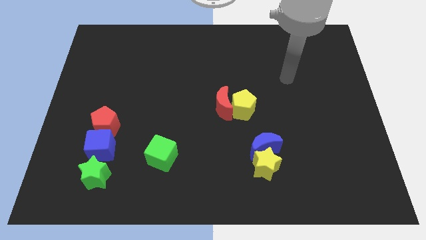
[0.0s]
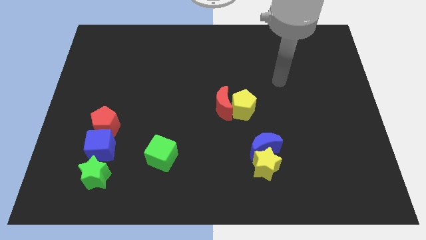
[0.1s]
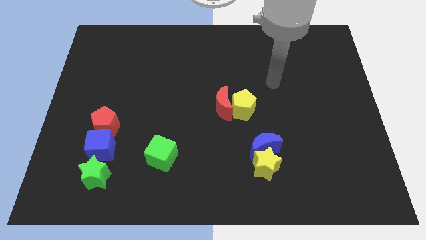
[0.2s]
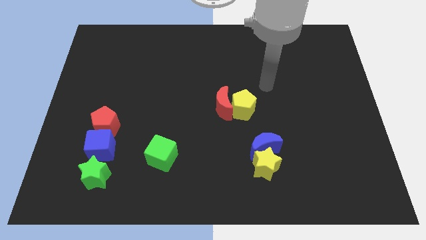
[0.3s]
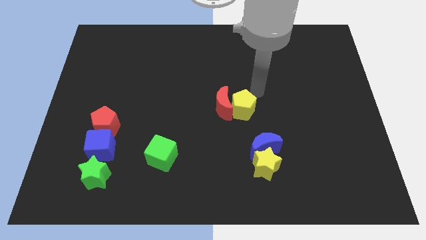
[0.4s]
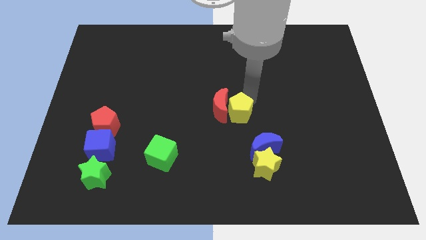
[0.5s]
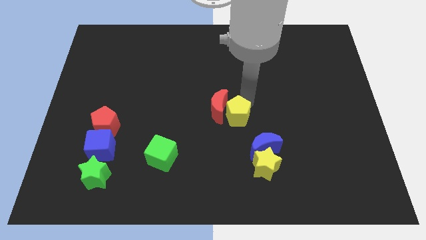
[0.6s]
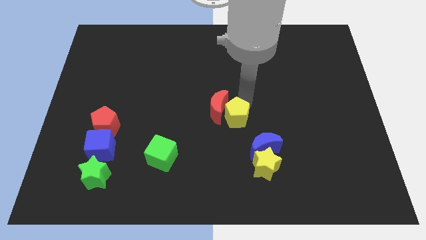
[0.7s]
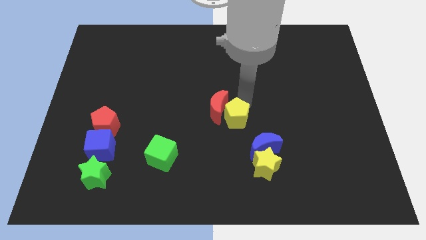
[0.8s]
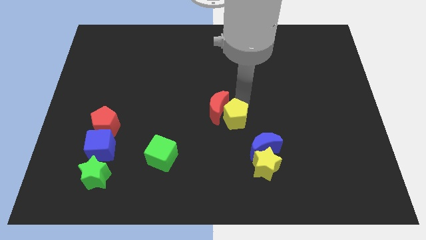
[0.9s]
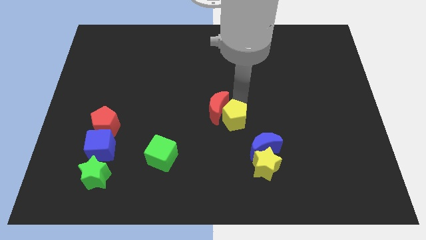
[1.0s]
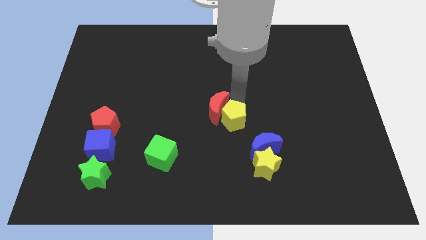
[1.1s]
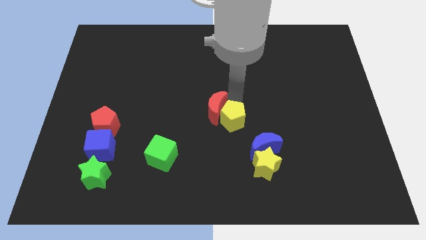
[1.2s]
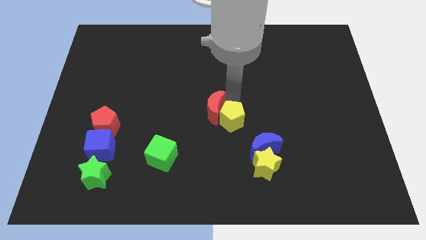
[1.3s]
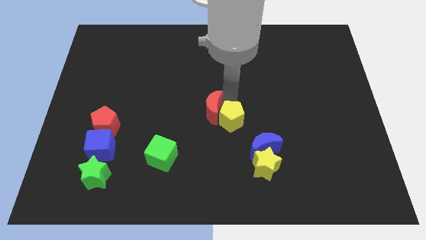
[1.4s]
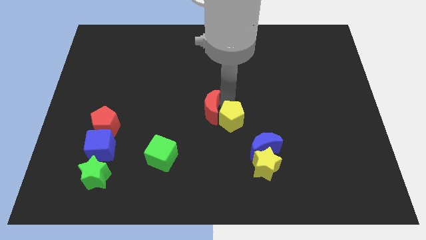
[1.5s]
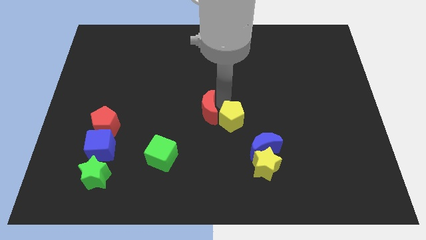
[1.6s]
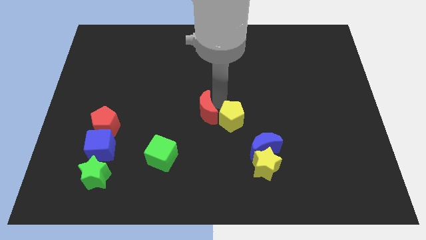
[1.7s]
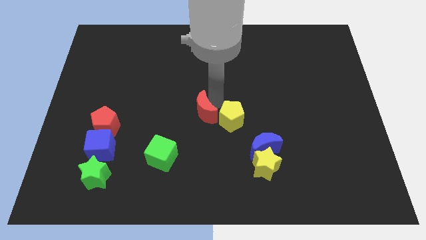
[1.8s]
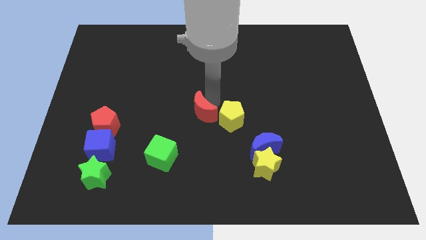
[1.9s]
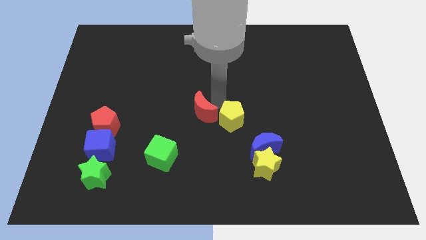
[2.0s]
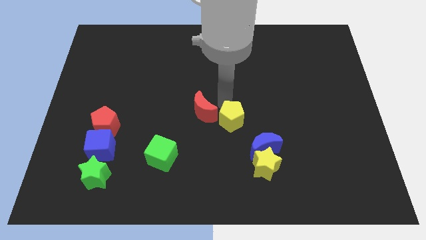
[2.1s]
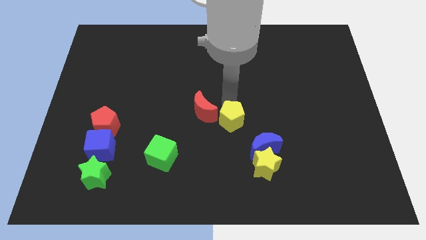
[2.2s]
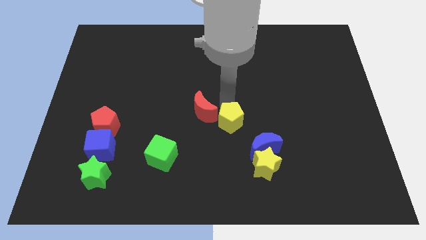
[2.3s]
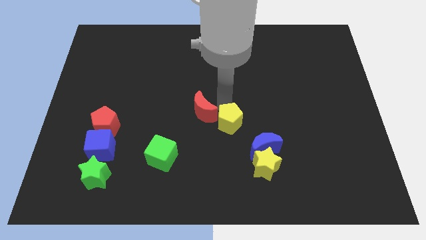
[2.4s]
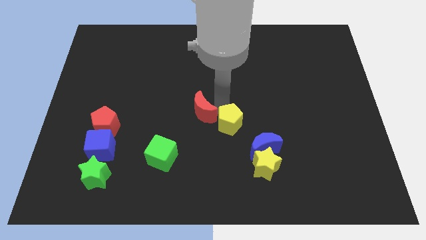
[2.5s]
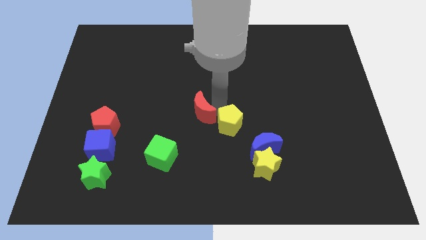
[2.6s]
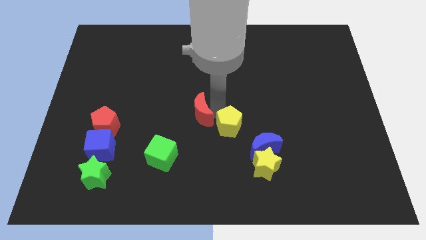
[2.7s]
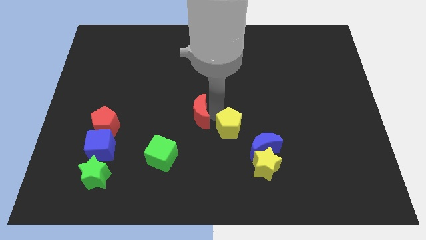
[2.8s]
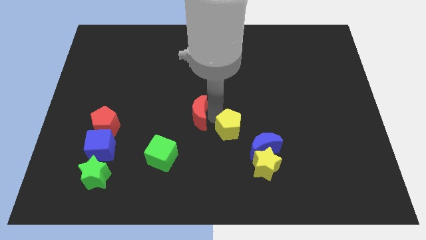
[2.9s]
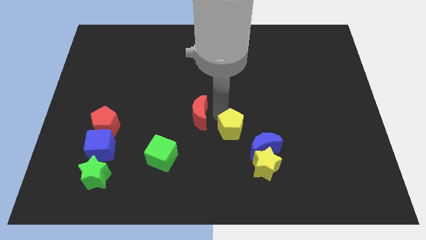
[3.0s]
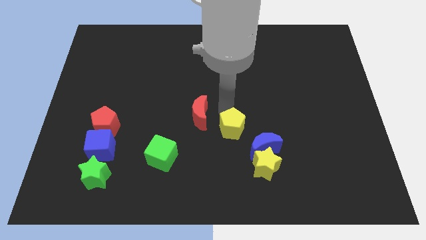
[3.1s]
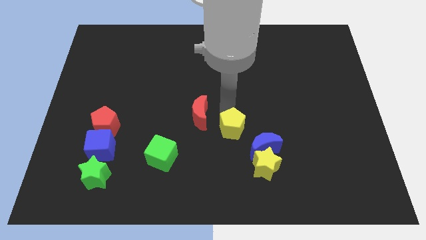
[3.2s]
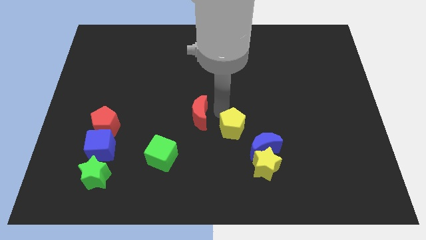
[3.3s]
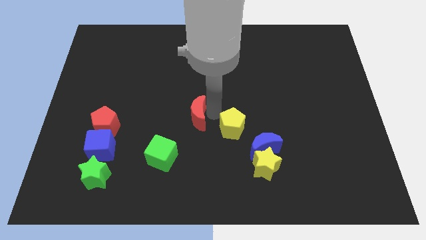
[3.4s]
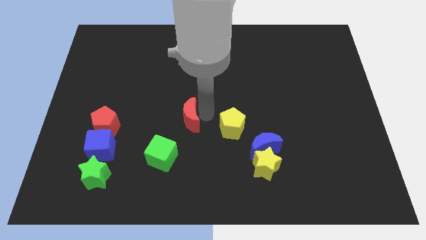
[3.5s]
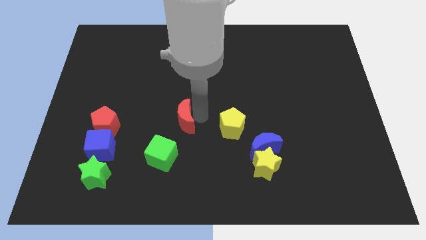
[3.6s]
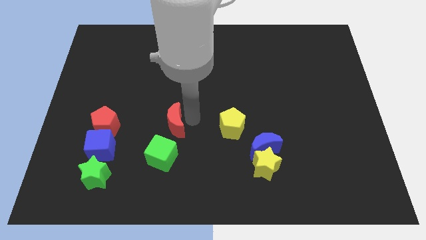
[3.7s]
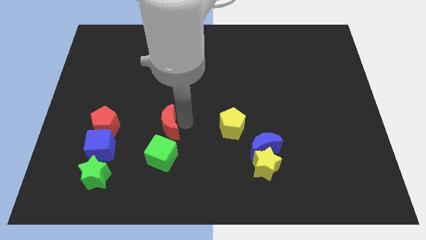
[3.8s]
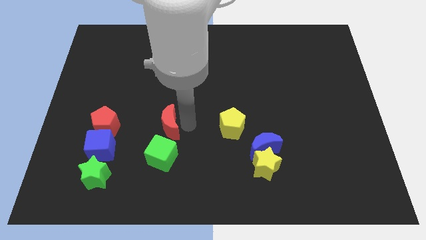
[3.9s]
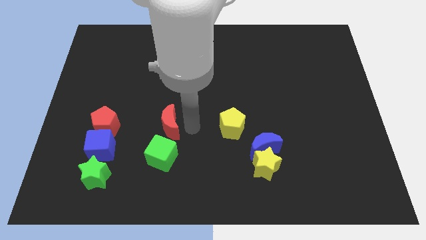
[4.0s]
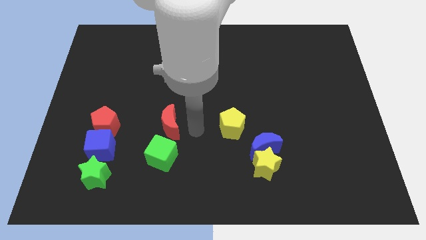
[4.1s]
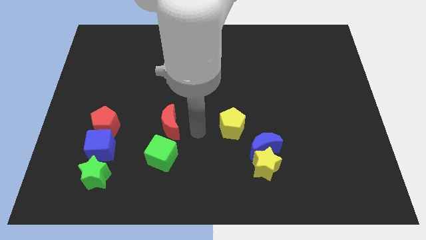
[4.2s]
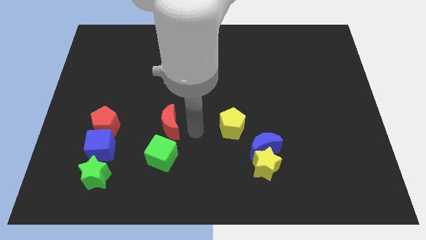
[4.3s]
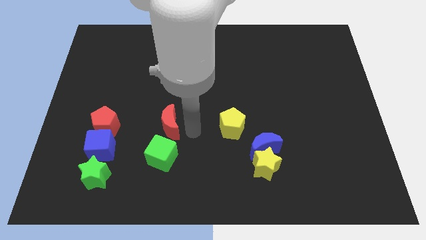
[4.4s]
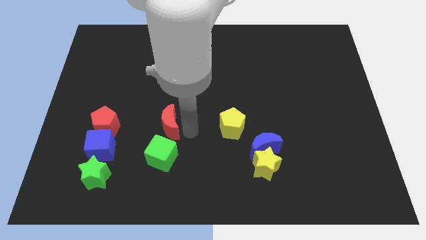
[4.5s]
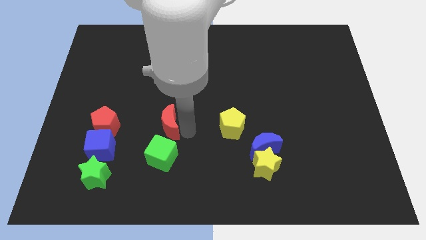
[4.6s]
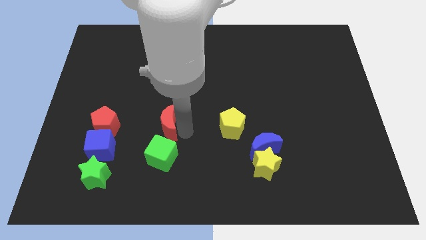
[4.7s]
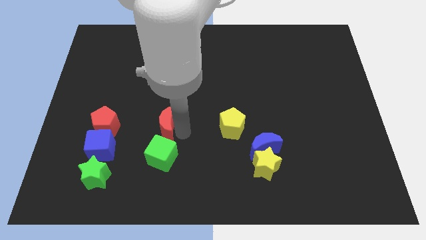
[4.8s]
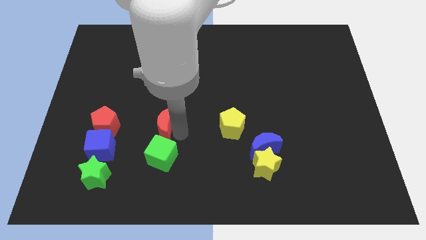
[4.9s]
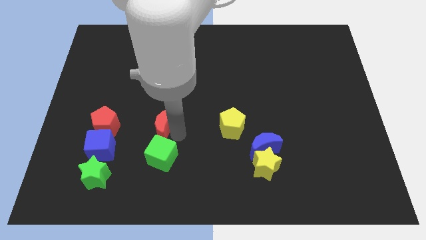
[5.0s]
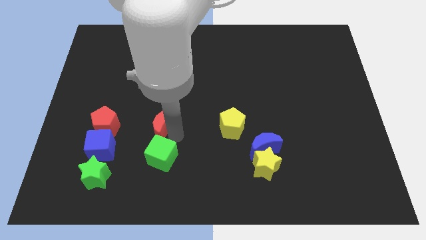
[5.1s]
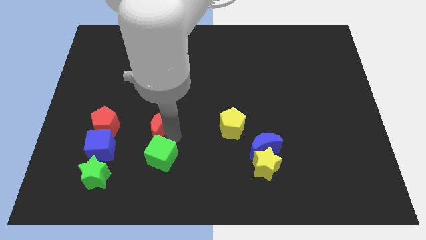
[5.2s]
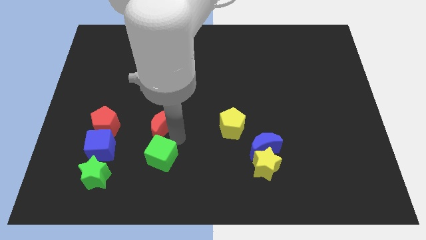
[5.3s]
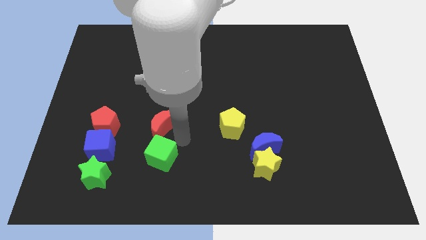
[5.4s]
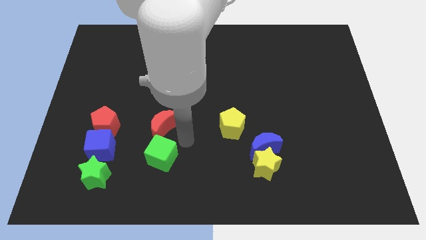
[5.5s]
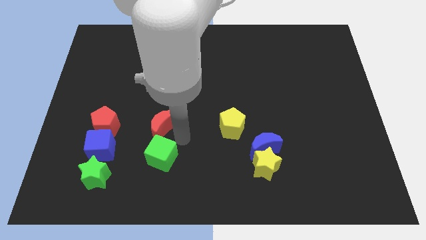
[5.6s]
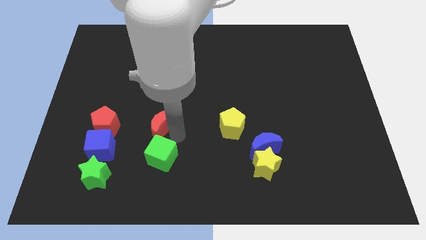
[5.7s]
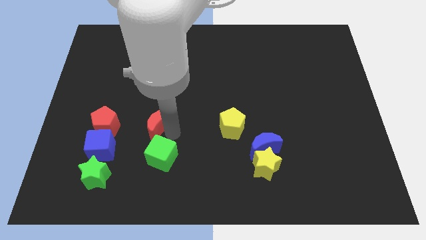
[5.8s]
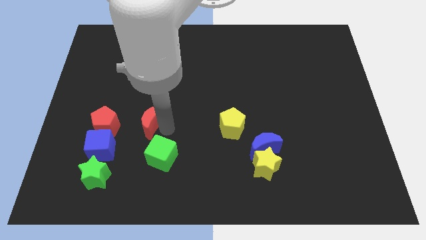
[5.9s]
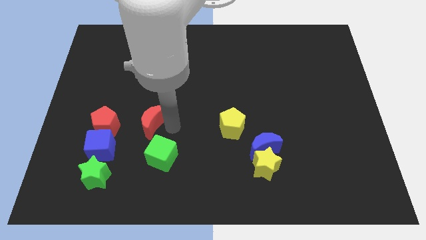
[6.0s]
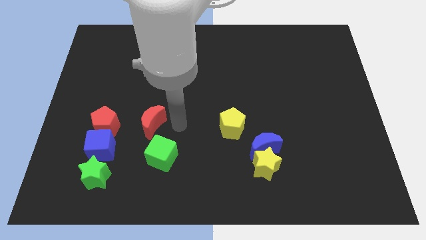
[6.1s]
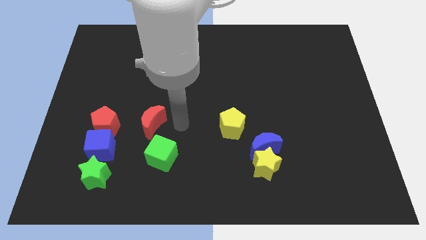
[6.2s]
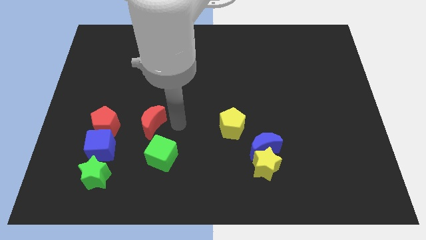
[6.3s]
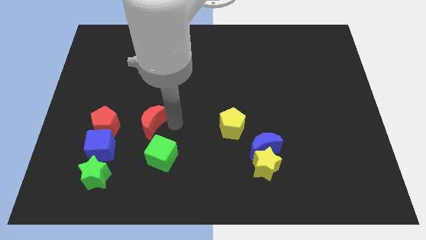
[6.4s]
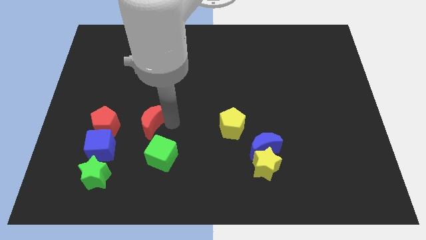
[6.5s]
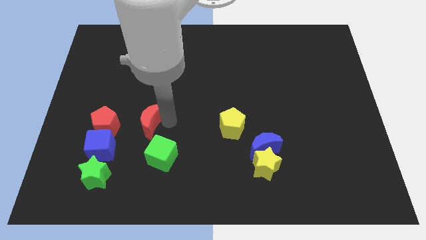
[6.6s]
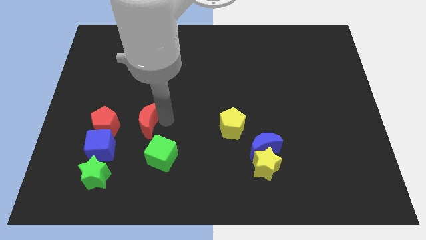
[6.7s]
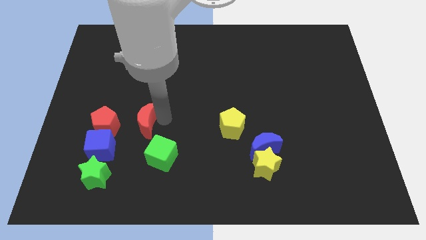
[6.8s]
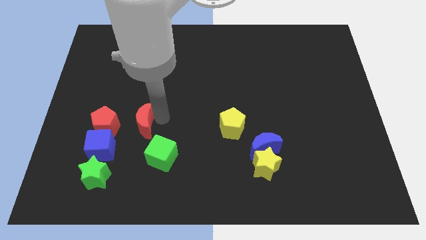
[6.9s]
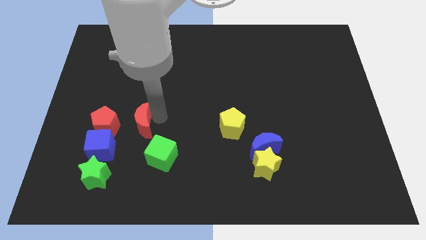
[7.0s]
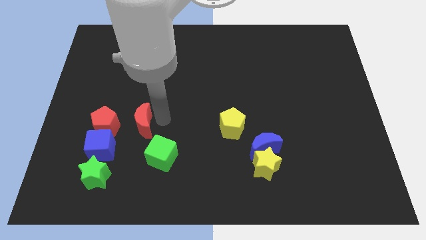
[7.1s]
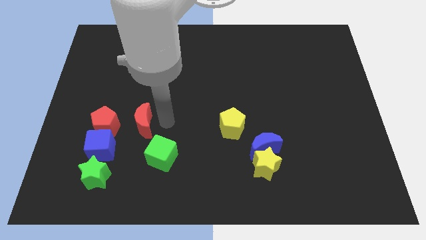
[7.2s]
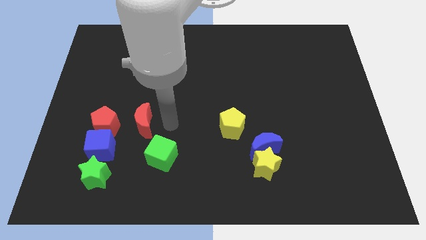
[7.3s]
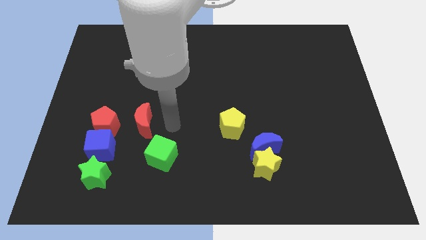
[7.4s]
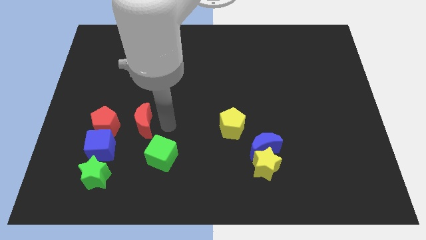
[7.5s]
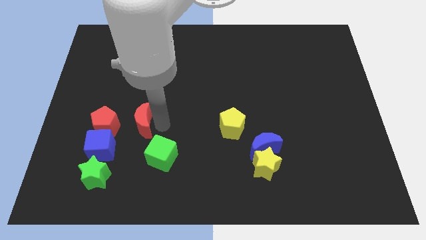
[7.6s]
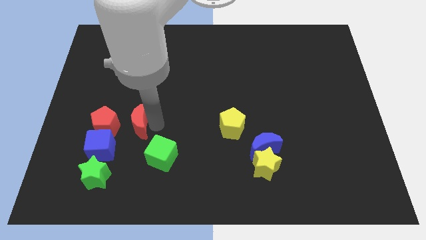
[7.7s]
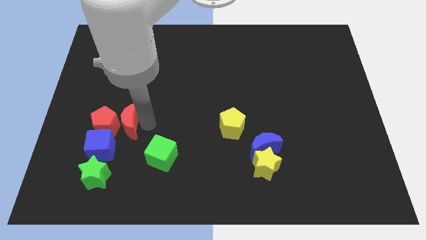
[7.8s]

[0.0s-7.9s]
push the red moon to the red pentagon
